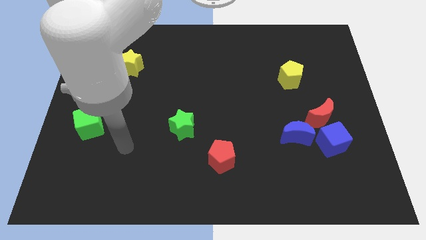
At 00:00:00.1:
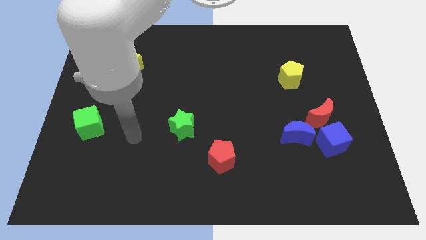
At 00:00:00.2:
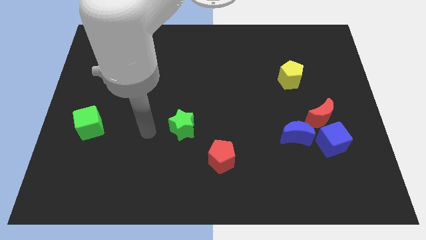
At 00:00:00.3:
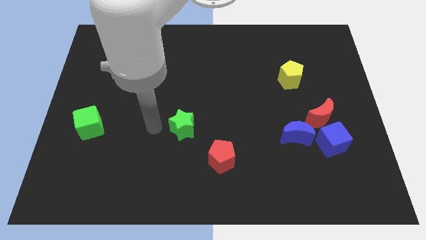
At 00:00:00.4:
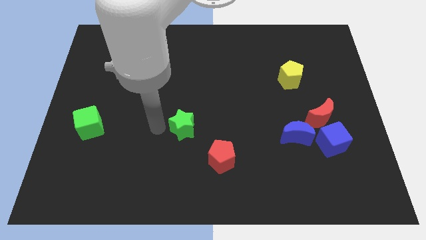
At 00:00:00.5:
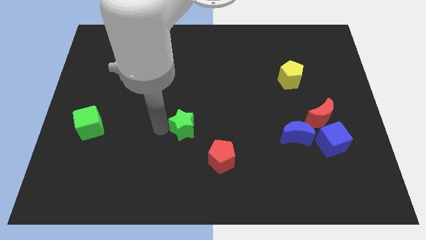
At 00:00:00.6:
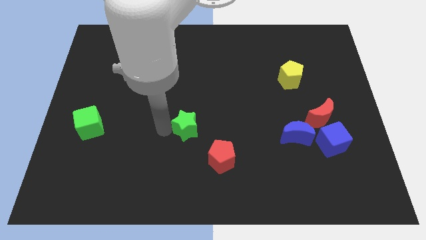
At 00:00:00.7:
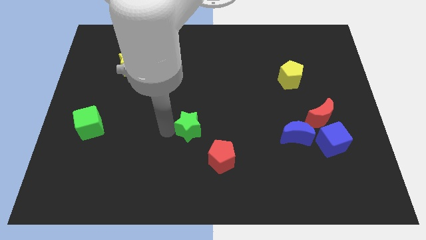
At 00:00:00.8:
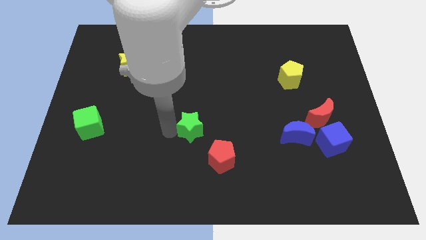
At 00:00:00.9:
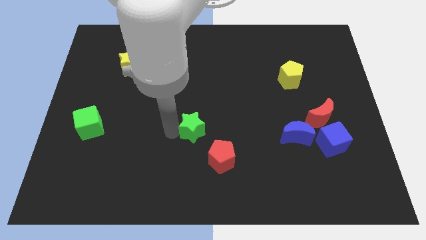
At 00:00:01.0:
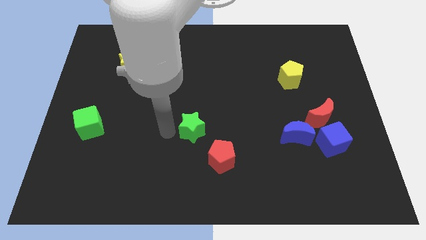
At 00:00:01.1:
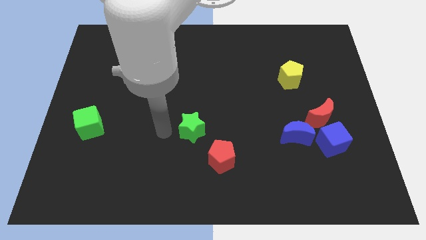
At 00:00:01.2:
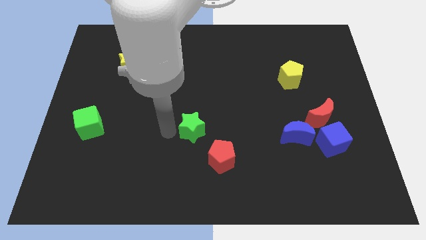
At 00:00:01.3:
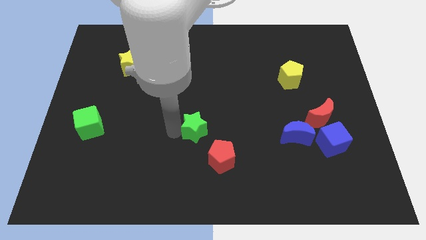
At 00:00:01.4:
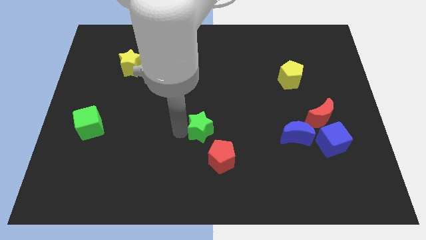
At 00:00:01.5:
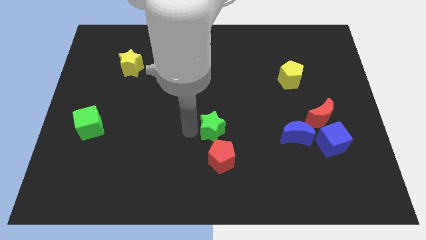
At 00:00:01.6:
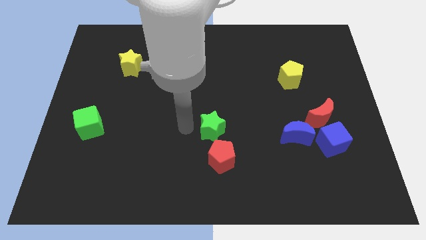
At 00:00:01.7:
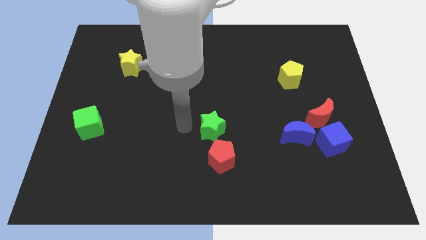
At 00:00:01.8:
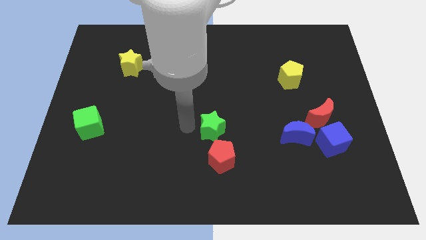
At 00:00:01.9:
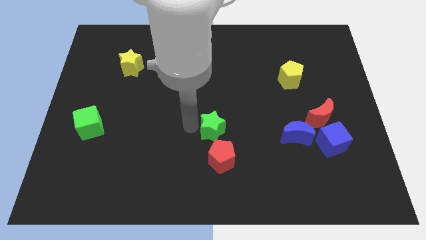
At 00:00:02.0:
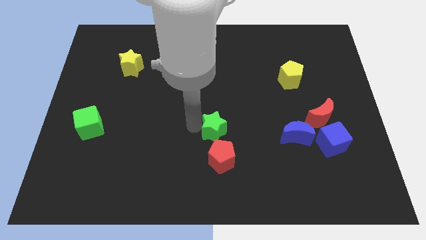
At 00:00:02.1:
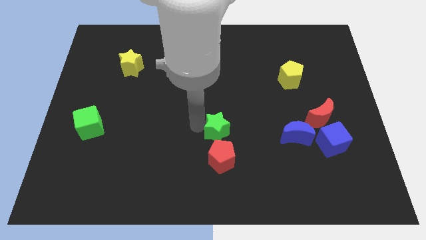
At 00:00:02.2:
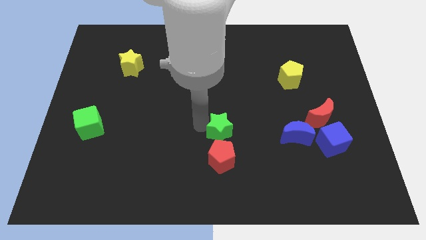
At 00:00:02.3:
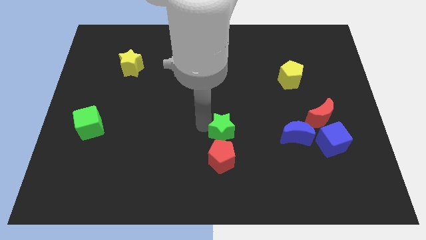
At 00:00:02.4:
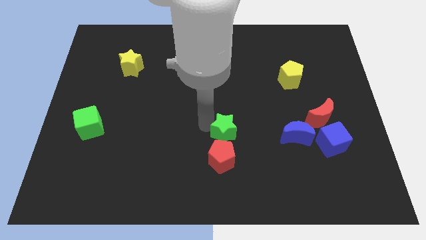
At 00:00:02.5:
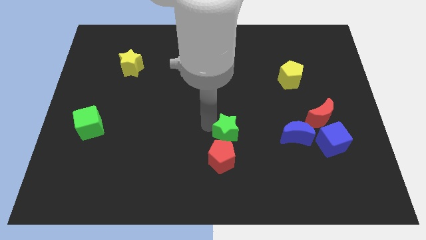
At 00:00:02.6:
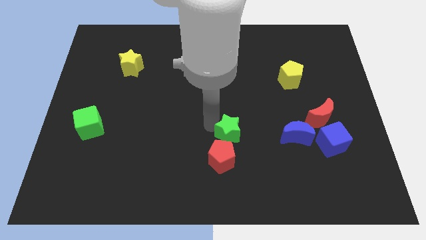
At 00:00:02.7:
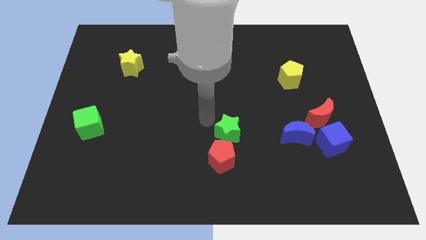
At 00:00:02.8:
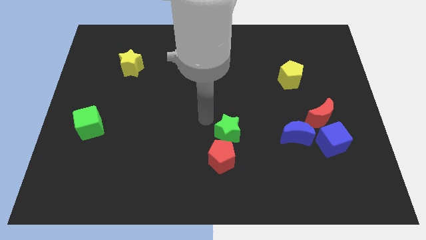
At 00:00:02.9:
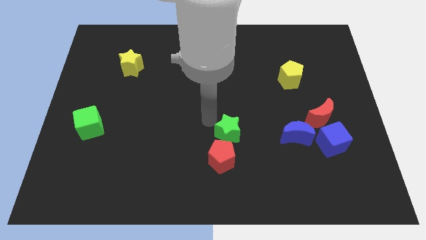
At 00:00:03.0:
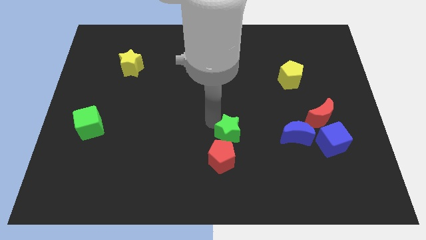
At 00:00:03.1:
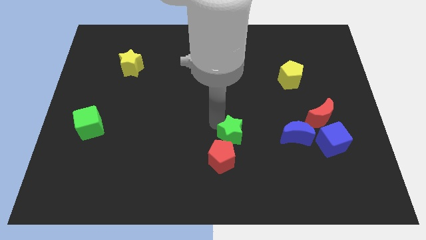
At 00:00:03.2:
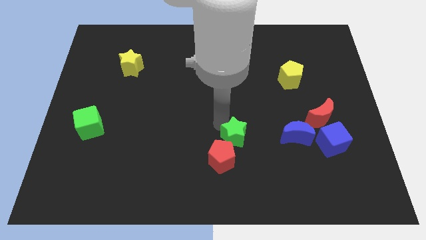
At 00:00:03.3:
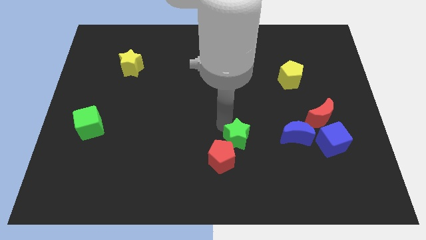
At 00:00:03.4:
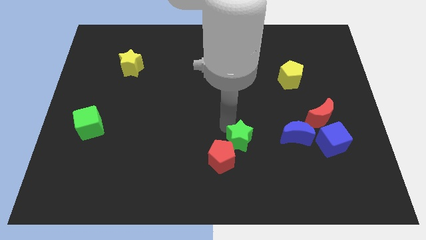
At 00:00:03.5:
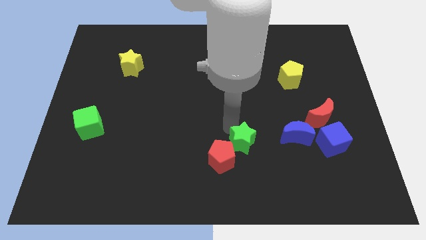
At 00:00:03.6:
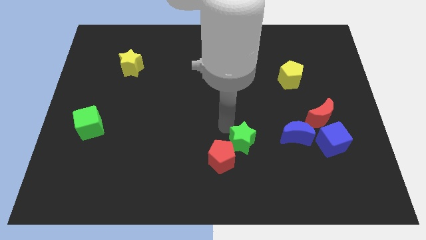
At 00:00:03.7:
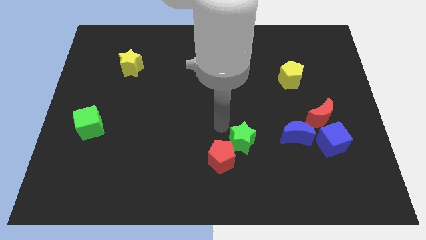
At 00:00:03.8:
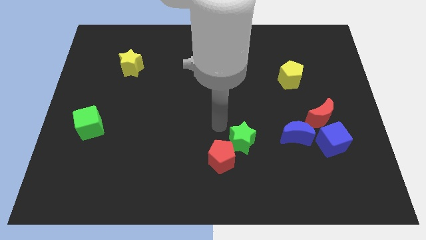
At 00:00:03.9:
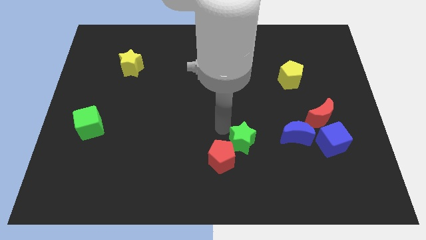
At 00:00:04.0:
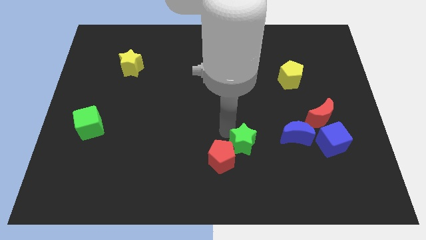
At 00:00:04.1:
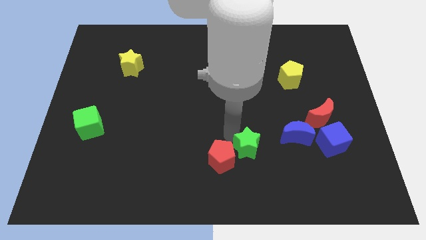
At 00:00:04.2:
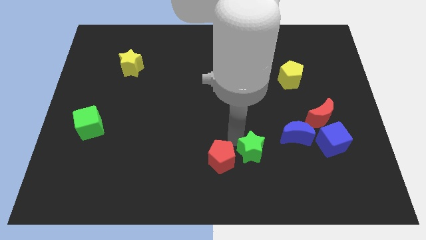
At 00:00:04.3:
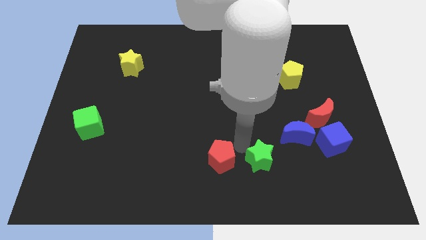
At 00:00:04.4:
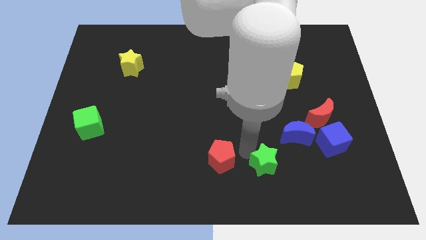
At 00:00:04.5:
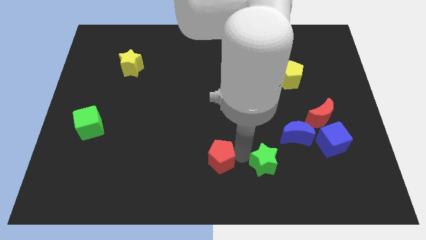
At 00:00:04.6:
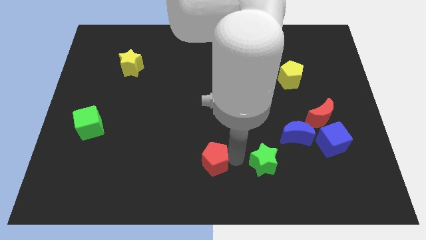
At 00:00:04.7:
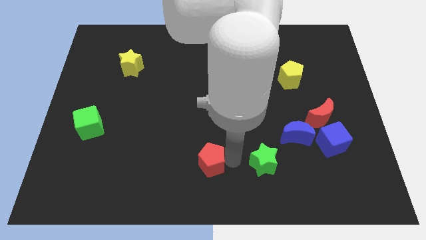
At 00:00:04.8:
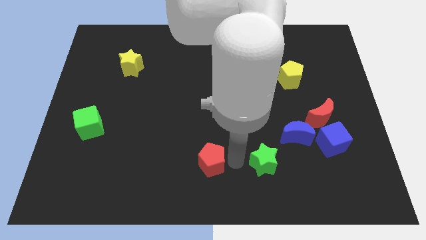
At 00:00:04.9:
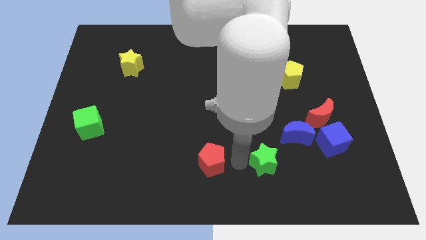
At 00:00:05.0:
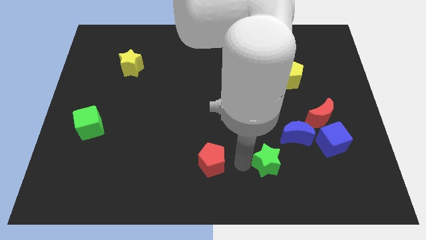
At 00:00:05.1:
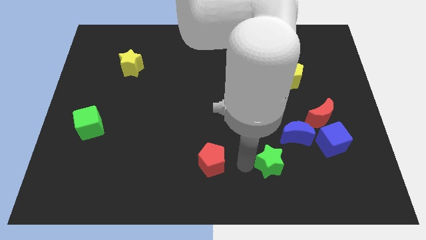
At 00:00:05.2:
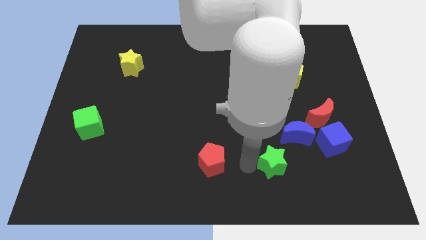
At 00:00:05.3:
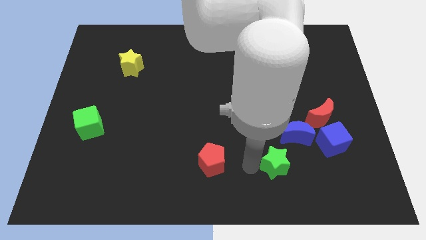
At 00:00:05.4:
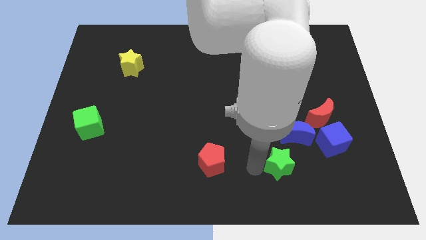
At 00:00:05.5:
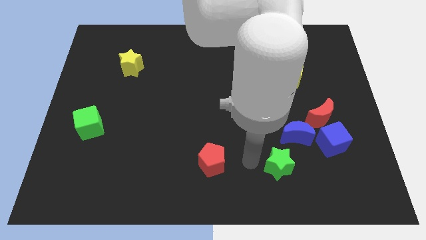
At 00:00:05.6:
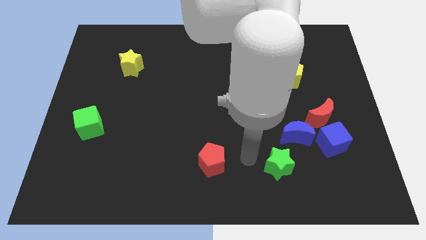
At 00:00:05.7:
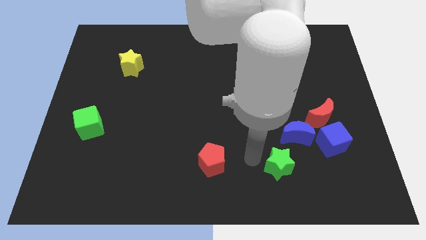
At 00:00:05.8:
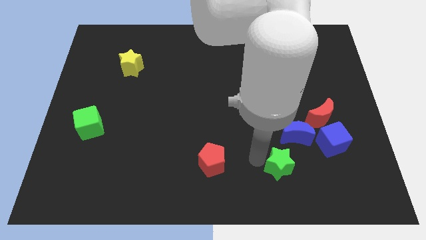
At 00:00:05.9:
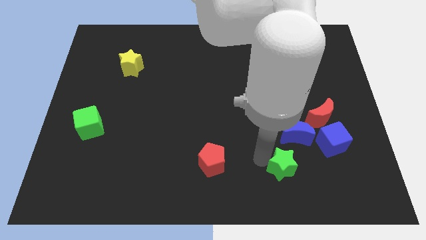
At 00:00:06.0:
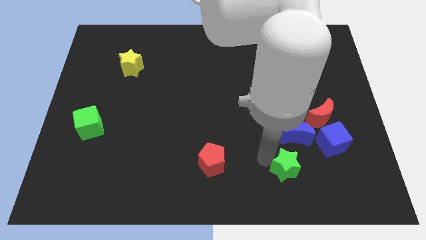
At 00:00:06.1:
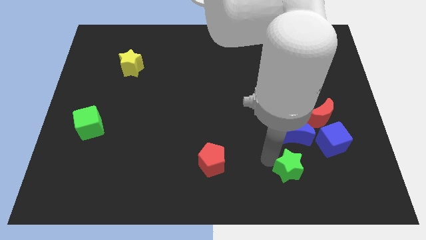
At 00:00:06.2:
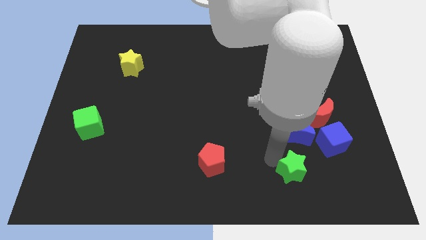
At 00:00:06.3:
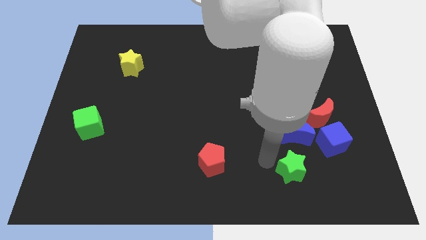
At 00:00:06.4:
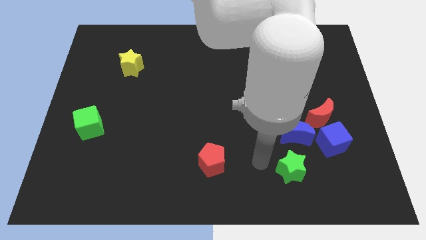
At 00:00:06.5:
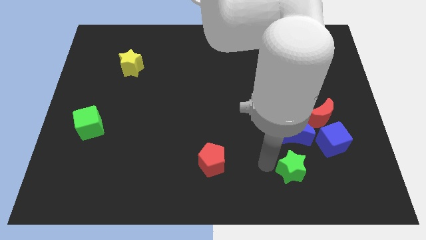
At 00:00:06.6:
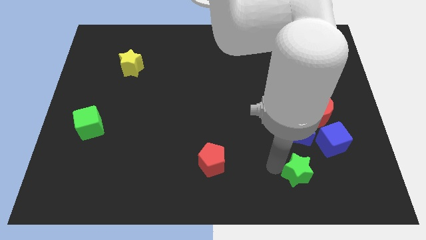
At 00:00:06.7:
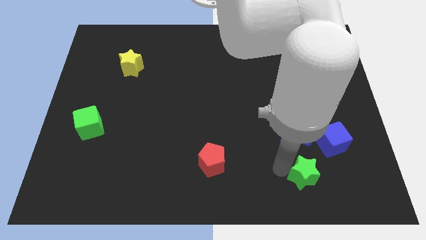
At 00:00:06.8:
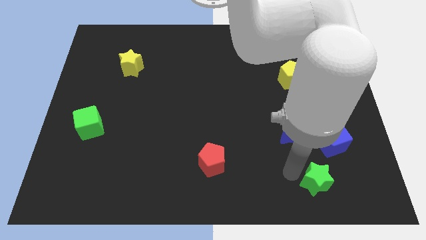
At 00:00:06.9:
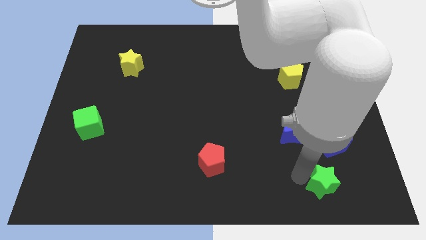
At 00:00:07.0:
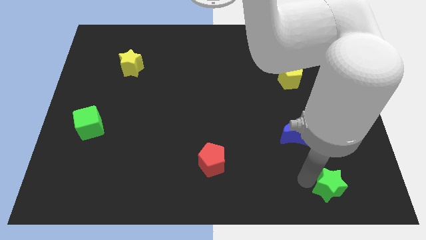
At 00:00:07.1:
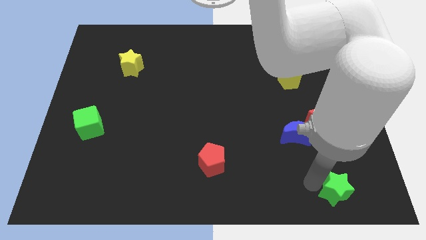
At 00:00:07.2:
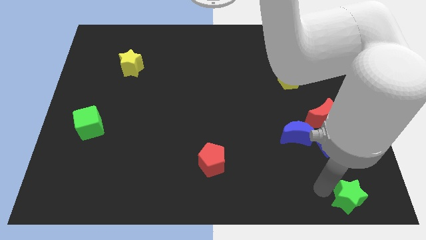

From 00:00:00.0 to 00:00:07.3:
put the green star to the lower right corner
